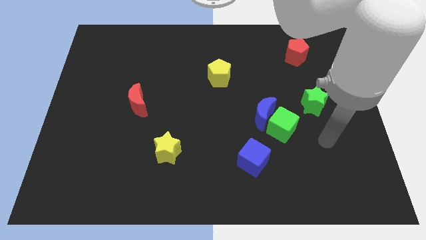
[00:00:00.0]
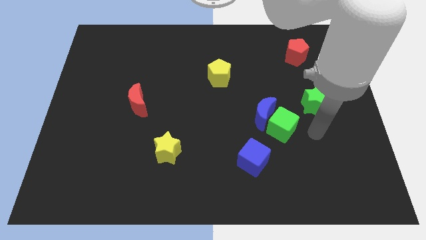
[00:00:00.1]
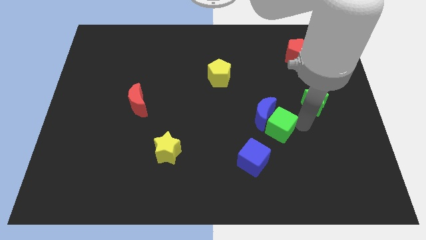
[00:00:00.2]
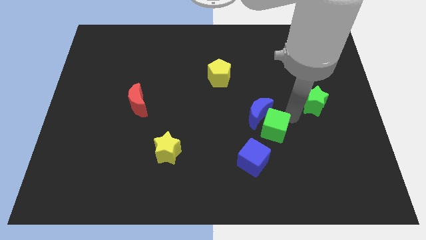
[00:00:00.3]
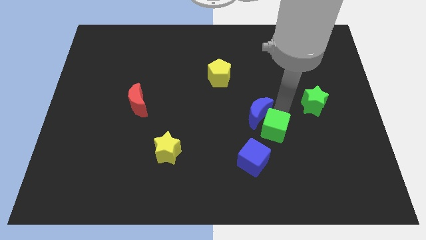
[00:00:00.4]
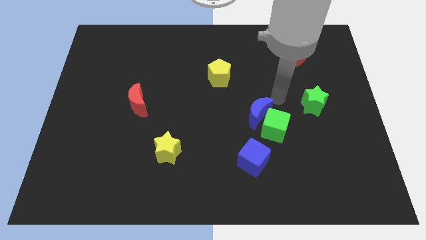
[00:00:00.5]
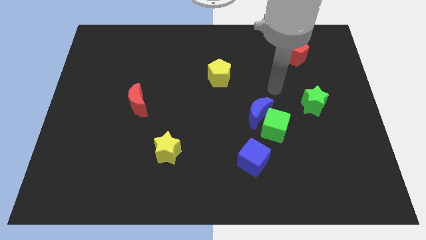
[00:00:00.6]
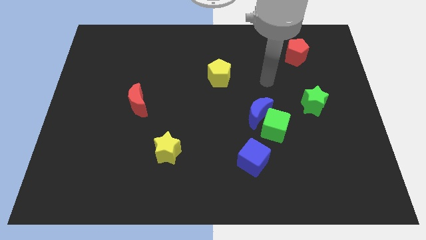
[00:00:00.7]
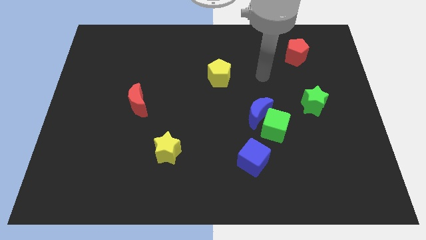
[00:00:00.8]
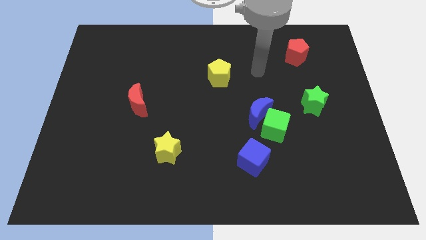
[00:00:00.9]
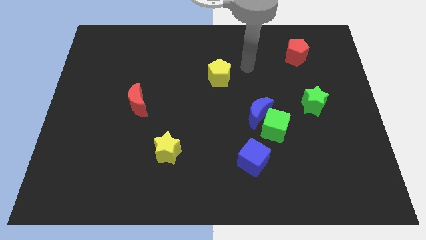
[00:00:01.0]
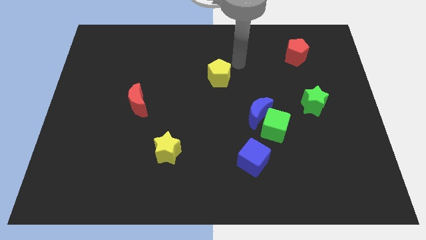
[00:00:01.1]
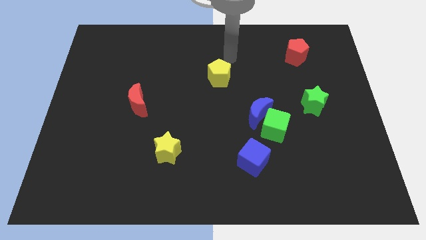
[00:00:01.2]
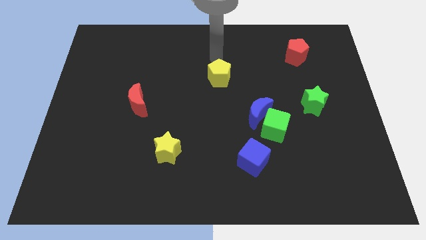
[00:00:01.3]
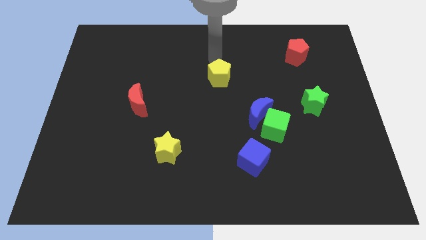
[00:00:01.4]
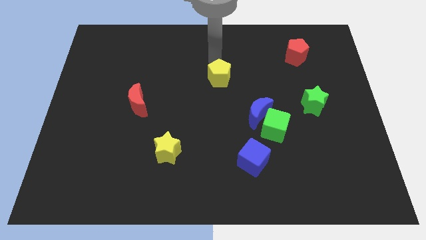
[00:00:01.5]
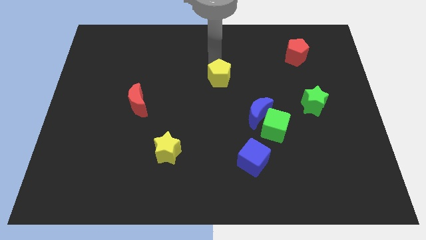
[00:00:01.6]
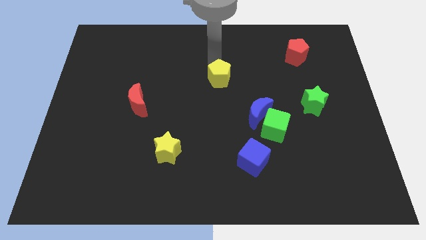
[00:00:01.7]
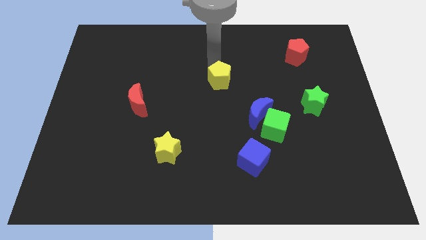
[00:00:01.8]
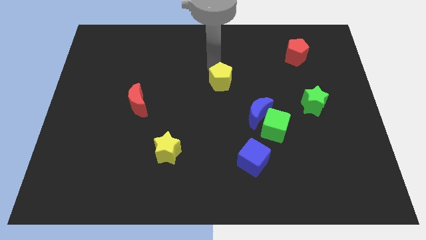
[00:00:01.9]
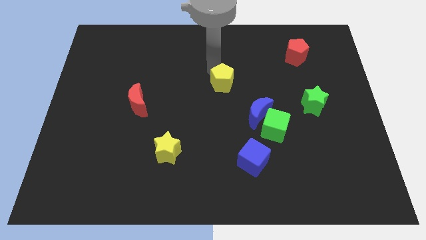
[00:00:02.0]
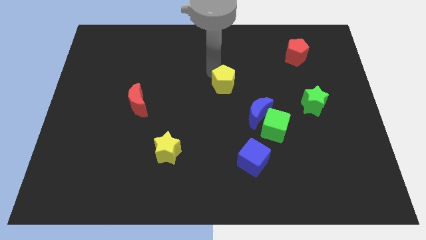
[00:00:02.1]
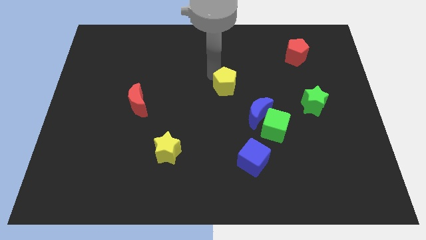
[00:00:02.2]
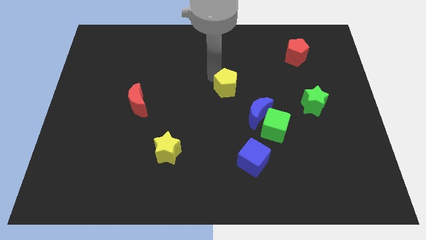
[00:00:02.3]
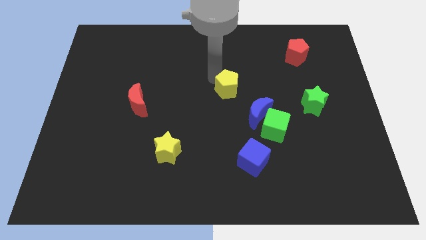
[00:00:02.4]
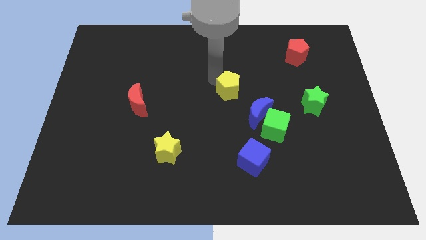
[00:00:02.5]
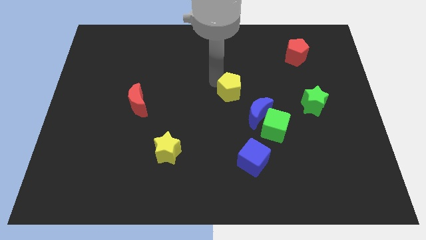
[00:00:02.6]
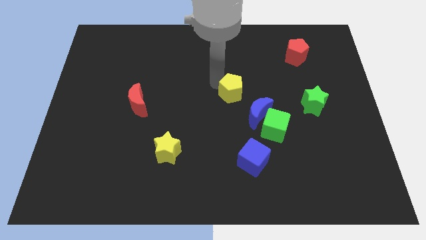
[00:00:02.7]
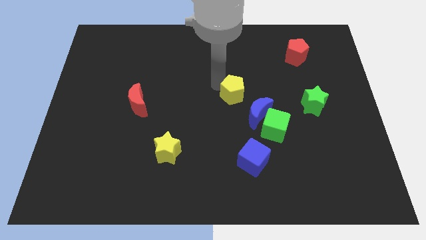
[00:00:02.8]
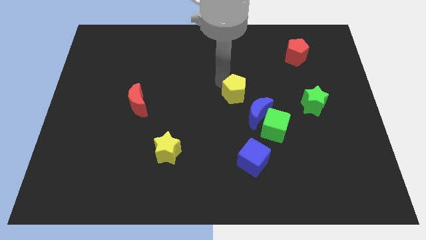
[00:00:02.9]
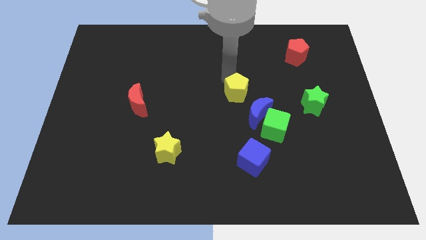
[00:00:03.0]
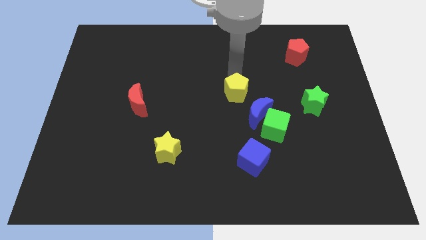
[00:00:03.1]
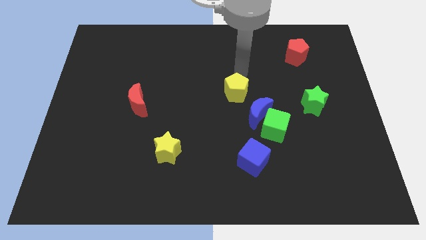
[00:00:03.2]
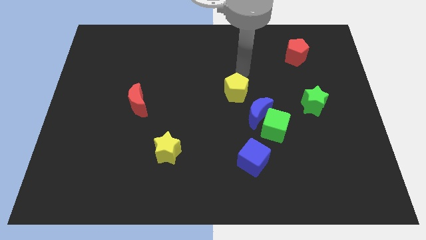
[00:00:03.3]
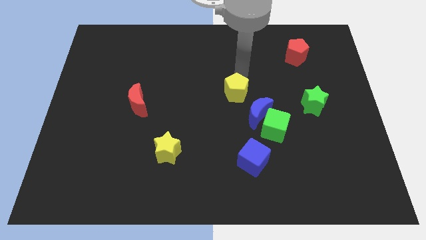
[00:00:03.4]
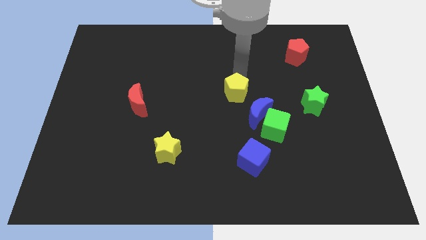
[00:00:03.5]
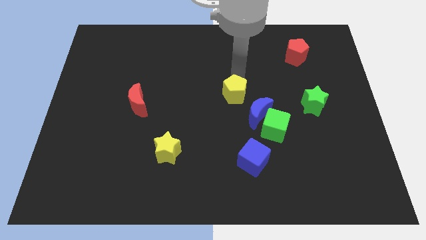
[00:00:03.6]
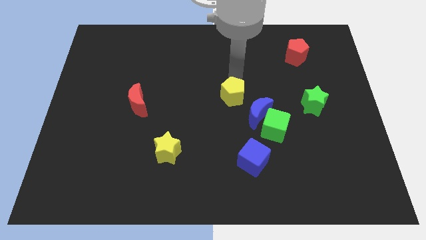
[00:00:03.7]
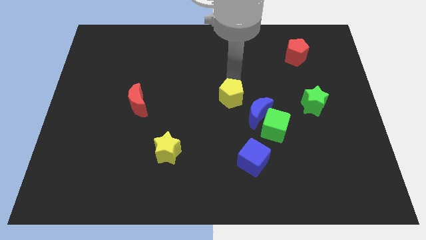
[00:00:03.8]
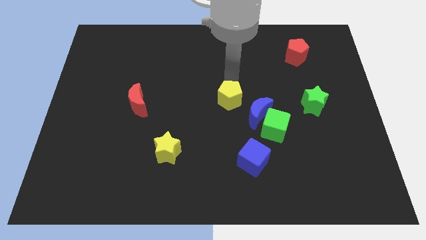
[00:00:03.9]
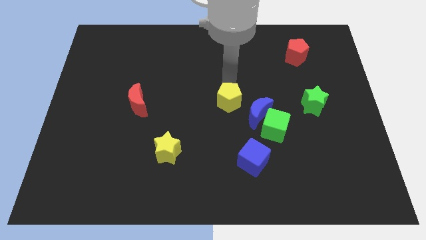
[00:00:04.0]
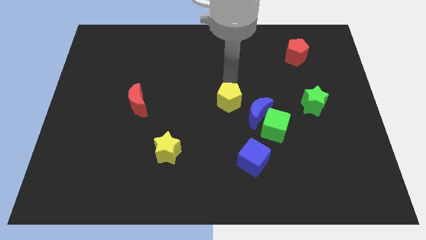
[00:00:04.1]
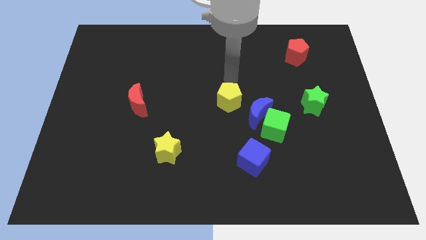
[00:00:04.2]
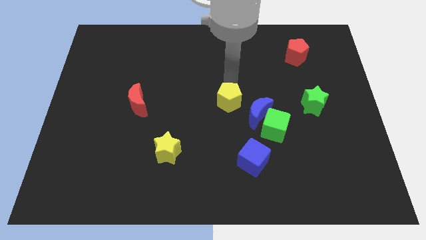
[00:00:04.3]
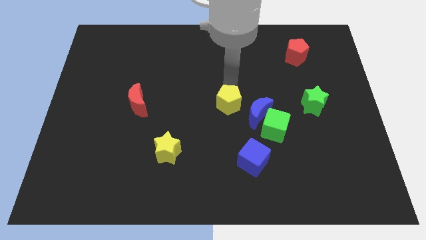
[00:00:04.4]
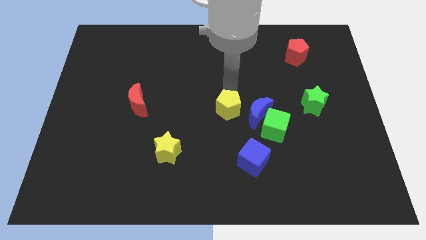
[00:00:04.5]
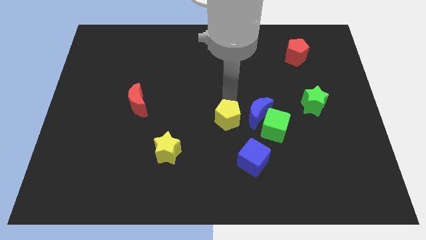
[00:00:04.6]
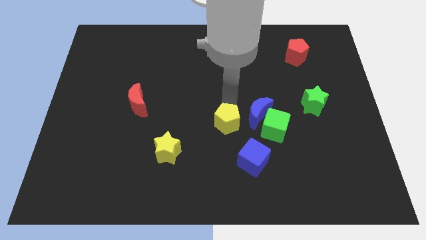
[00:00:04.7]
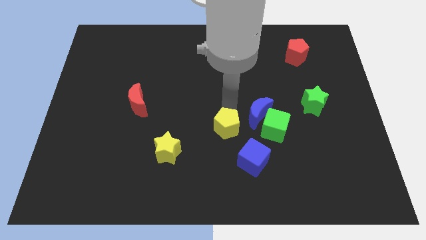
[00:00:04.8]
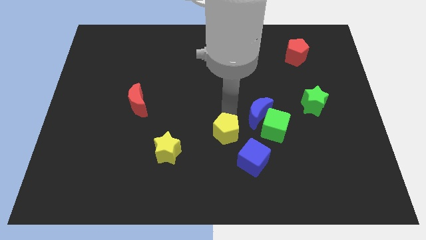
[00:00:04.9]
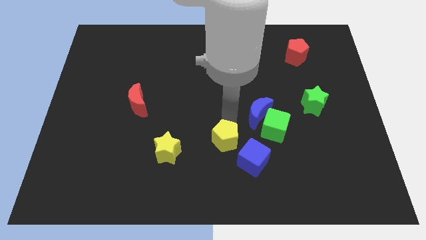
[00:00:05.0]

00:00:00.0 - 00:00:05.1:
slide the yellow pentagon just right of the yellow star

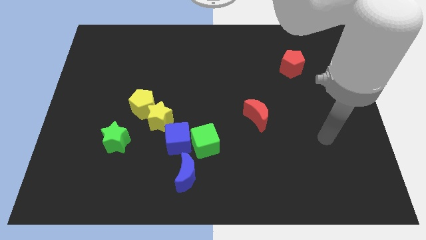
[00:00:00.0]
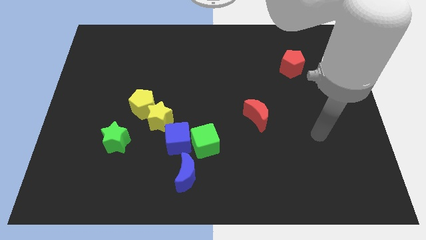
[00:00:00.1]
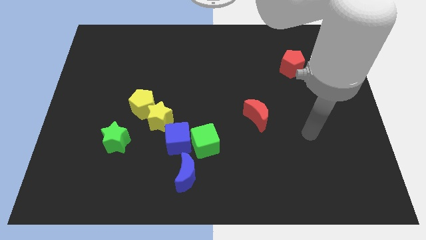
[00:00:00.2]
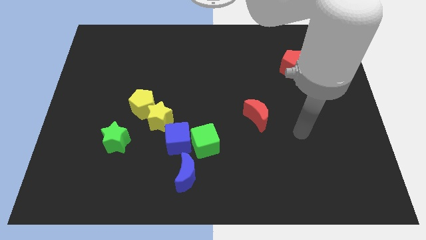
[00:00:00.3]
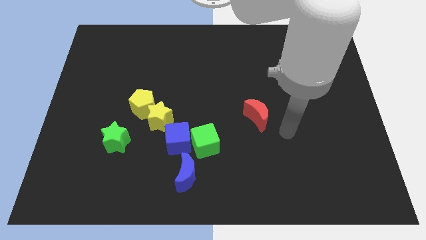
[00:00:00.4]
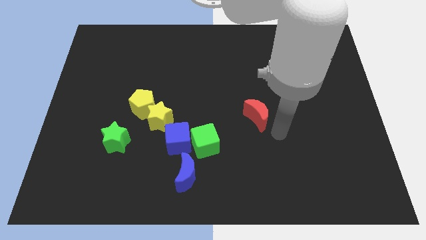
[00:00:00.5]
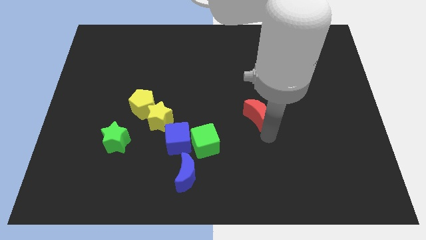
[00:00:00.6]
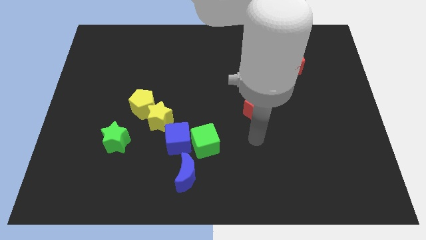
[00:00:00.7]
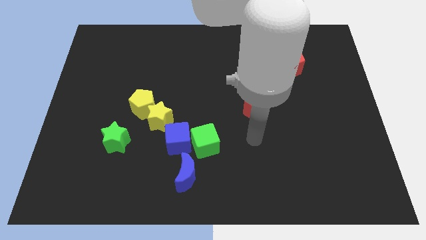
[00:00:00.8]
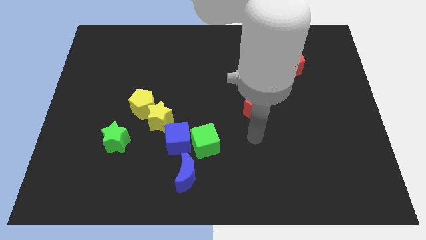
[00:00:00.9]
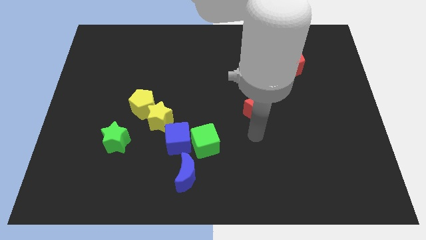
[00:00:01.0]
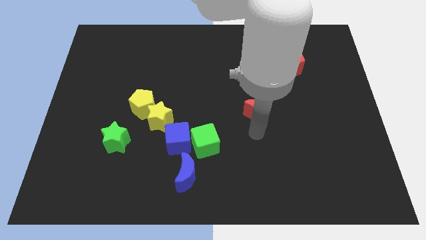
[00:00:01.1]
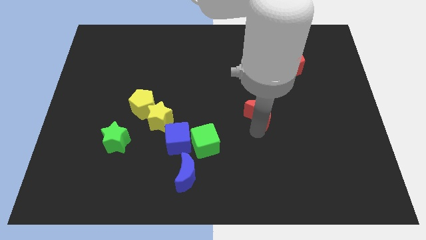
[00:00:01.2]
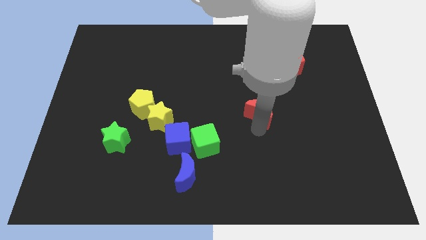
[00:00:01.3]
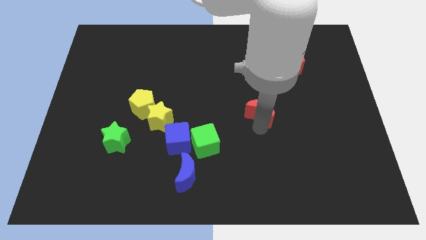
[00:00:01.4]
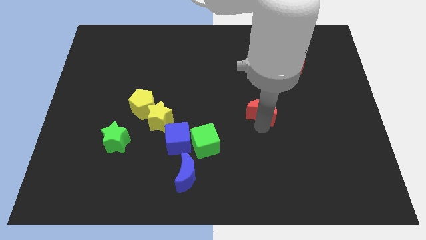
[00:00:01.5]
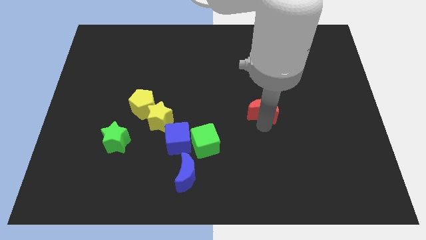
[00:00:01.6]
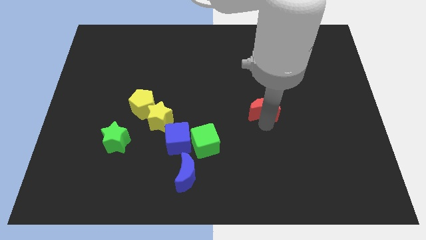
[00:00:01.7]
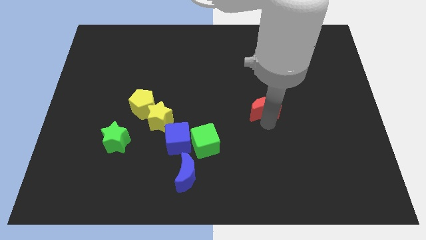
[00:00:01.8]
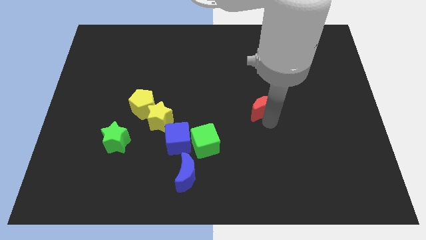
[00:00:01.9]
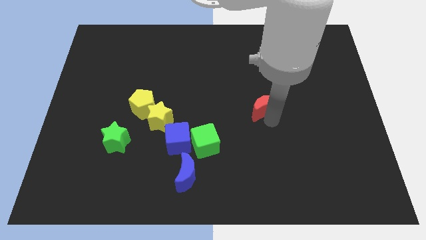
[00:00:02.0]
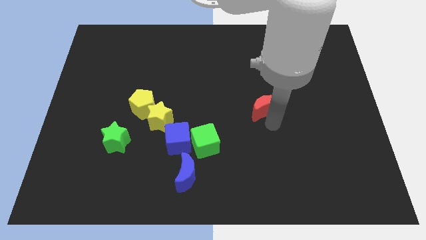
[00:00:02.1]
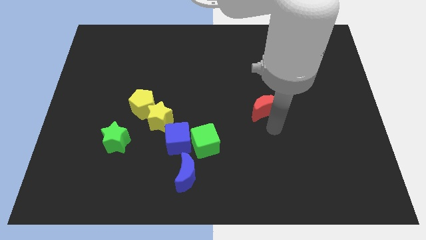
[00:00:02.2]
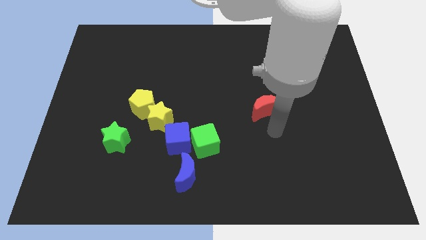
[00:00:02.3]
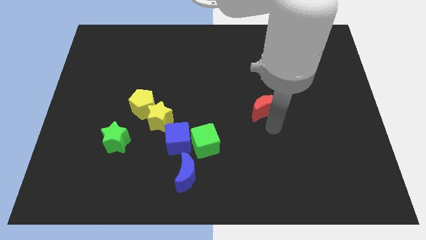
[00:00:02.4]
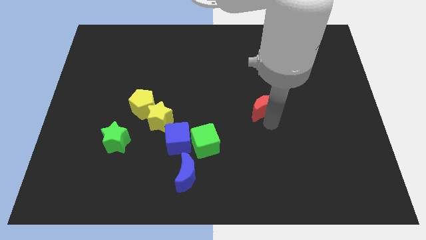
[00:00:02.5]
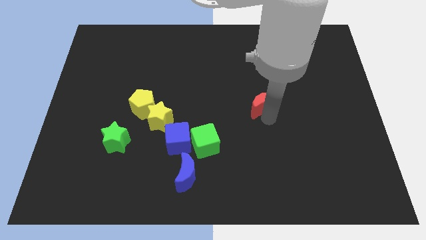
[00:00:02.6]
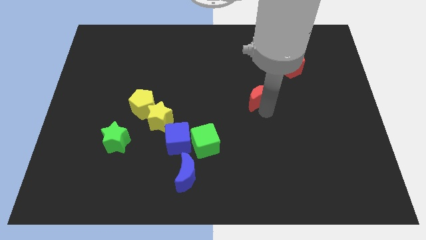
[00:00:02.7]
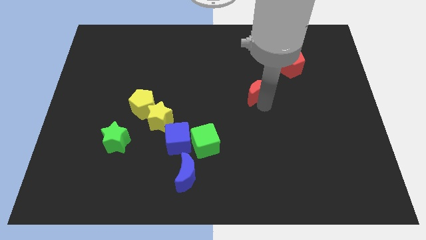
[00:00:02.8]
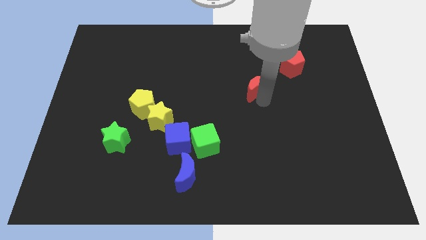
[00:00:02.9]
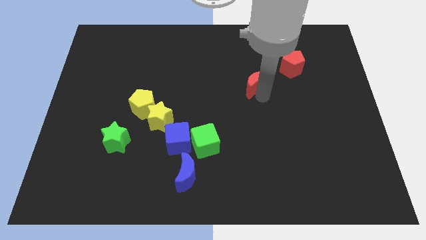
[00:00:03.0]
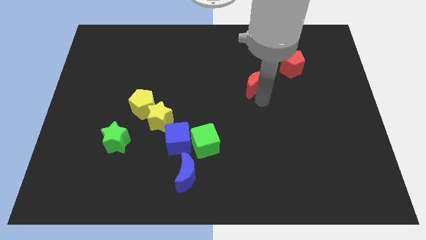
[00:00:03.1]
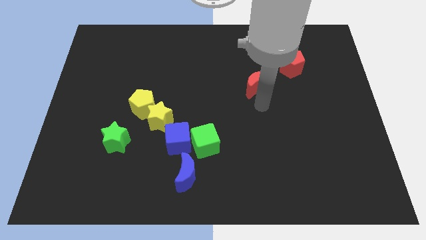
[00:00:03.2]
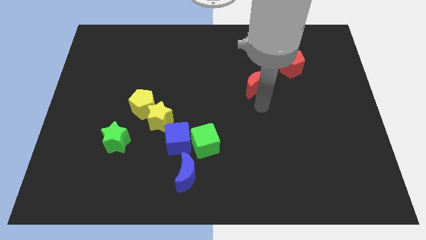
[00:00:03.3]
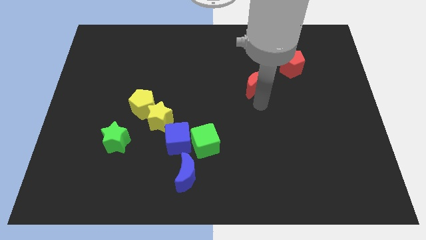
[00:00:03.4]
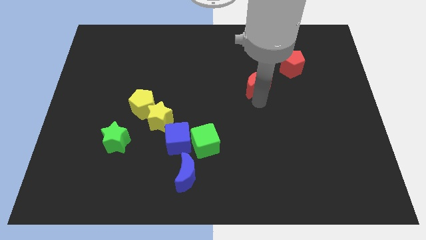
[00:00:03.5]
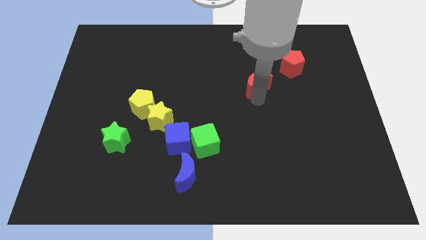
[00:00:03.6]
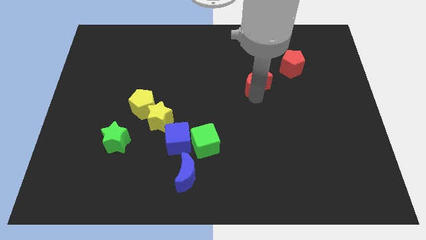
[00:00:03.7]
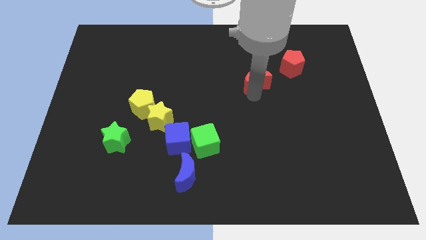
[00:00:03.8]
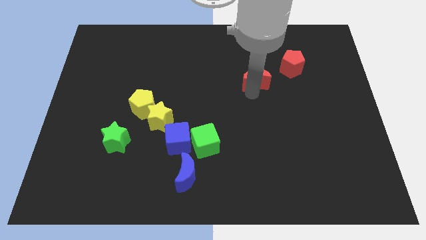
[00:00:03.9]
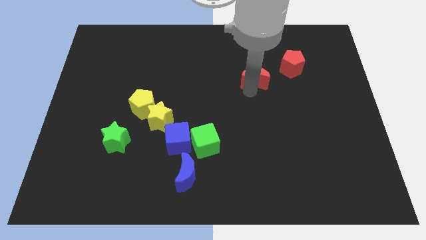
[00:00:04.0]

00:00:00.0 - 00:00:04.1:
slide the red moon to the left of the red pentagon
